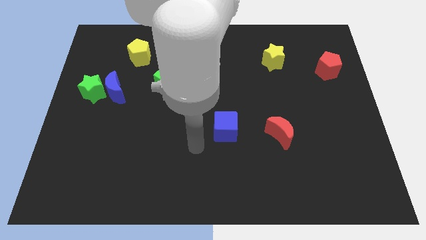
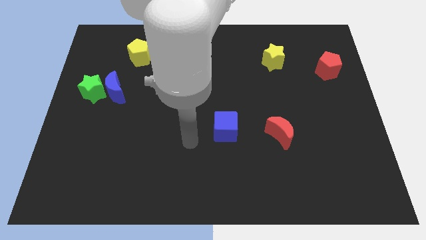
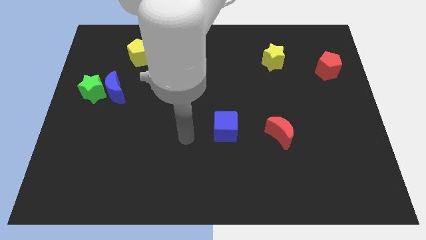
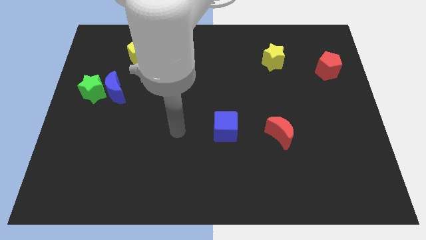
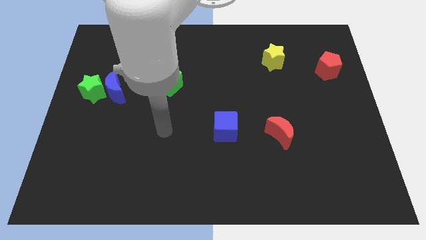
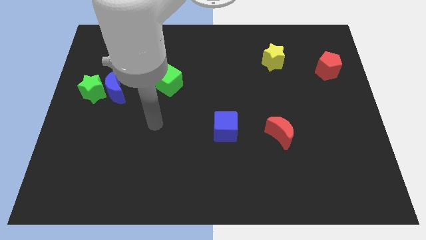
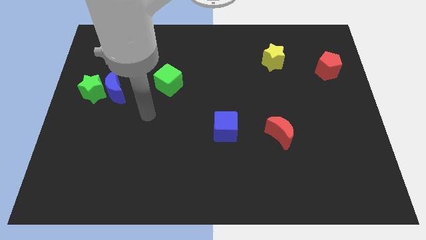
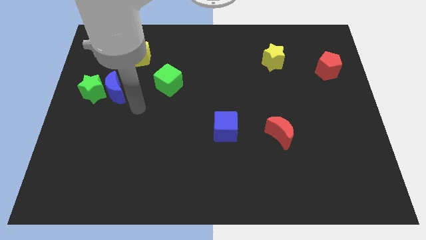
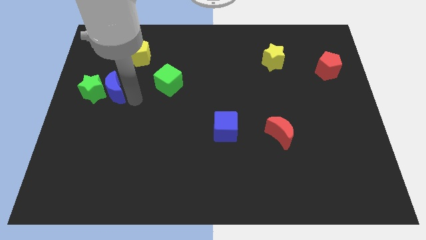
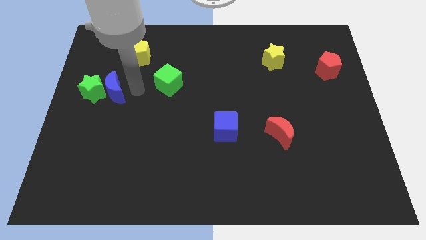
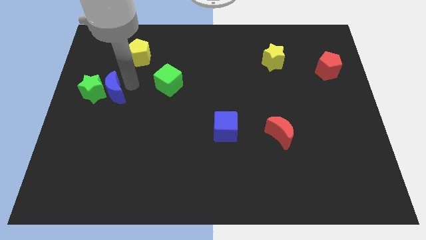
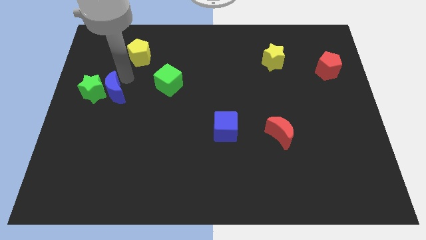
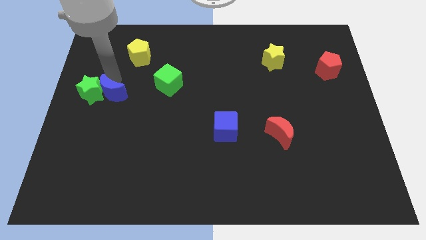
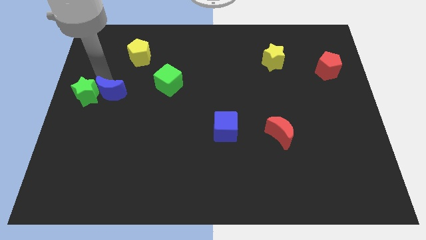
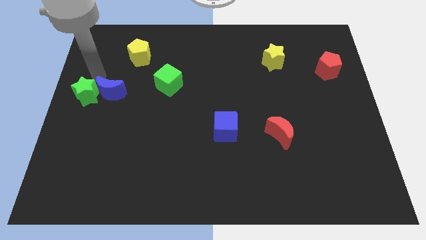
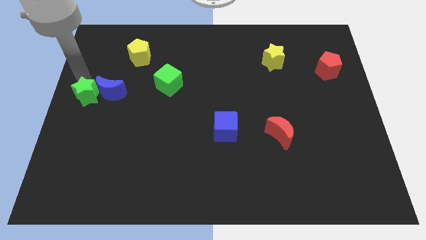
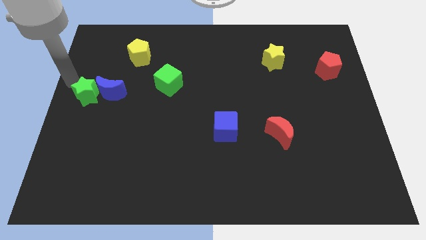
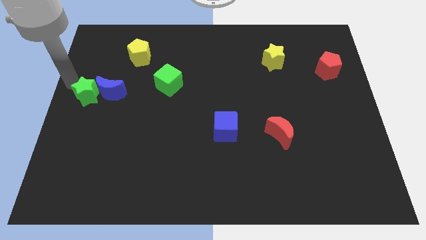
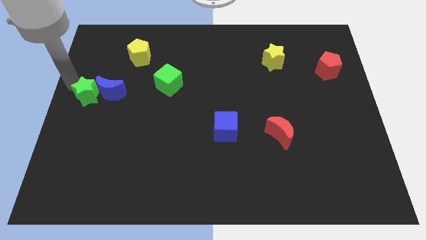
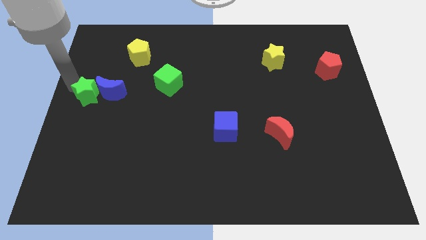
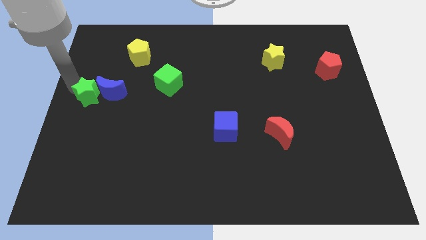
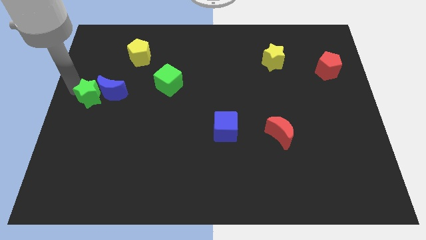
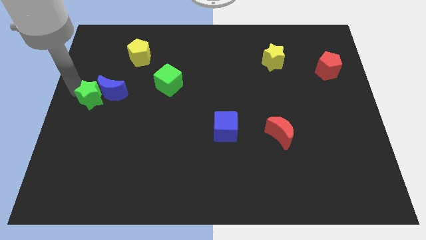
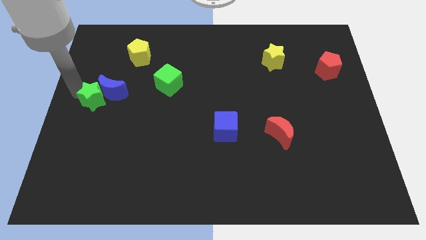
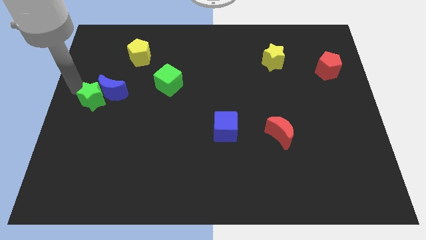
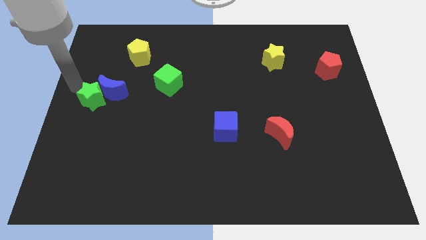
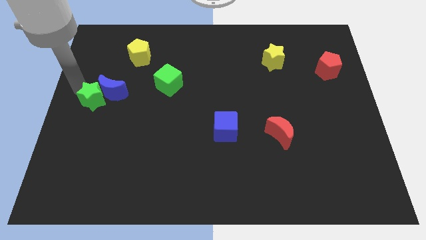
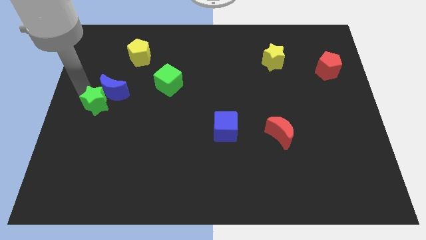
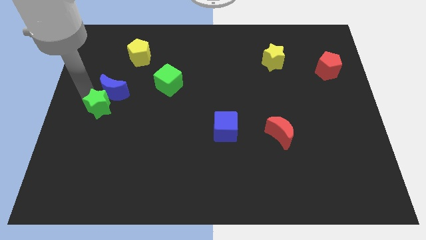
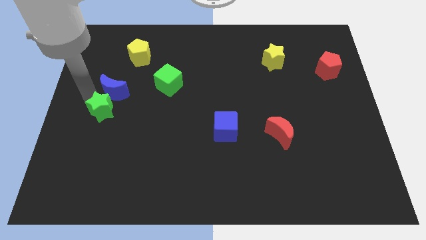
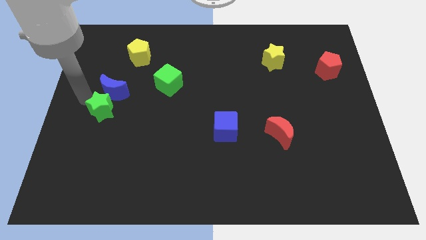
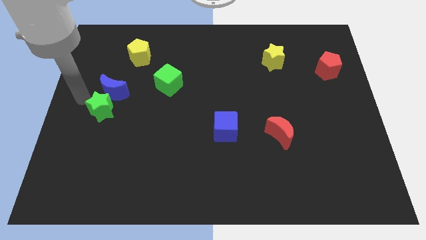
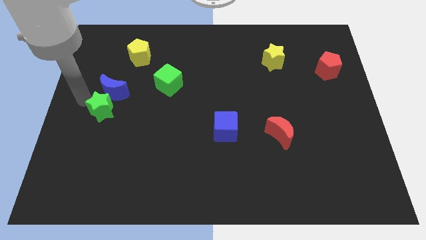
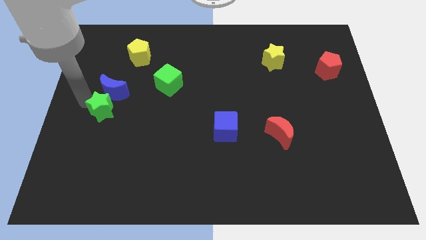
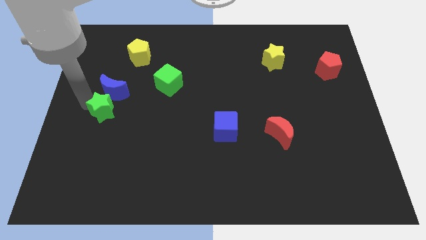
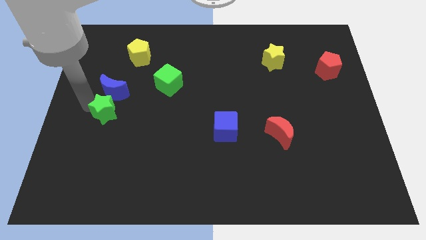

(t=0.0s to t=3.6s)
slide the green star down and to the right somewhat

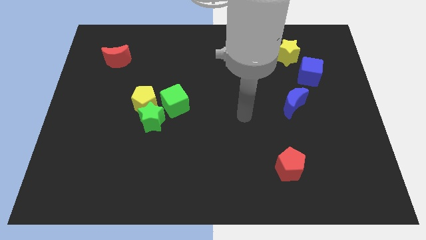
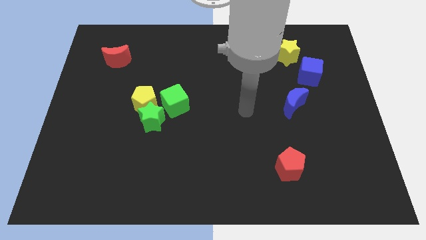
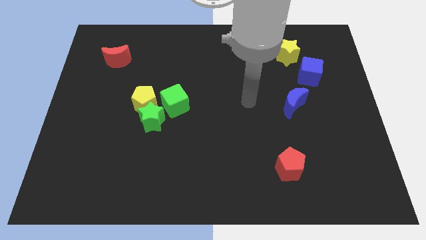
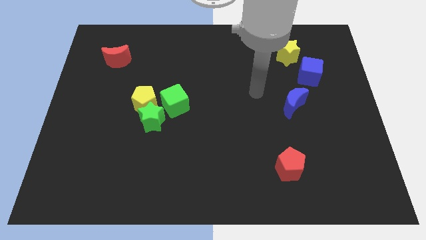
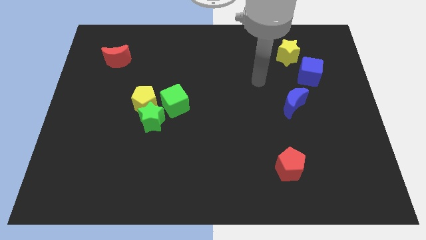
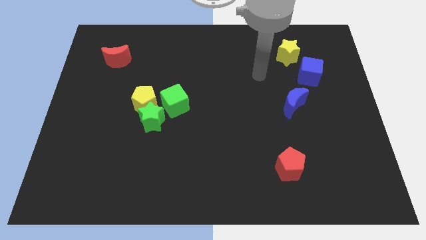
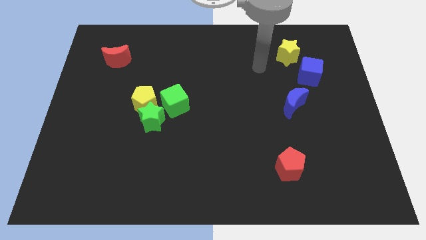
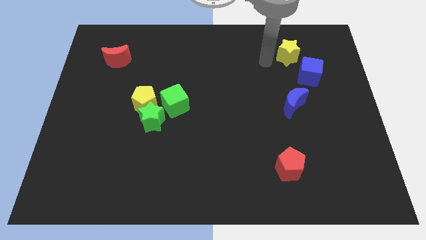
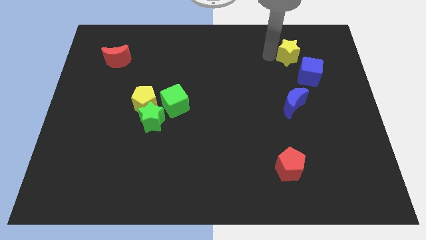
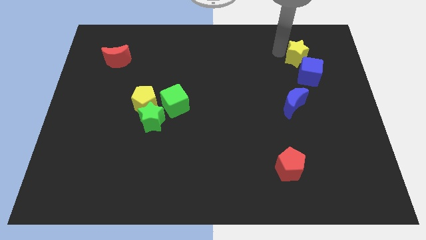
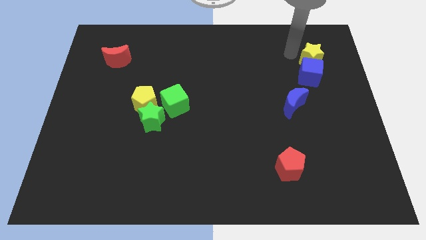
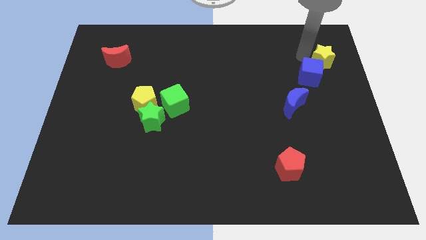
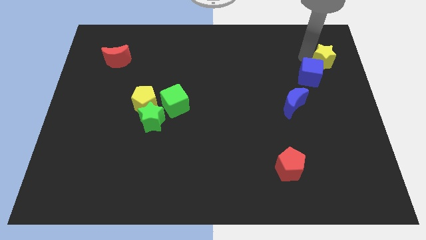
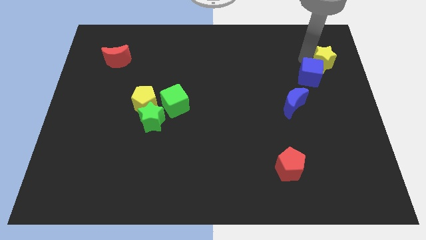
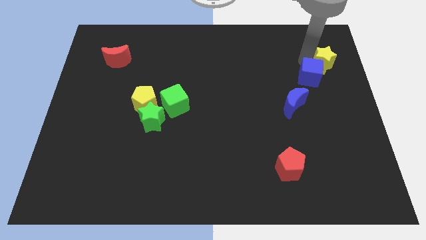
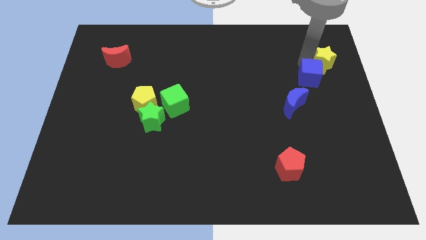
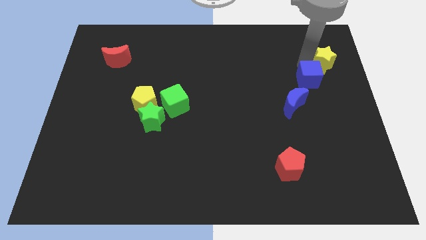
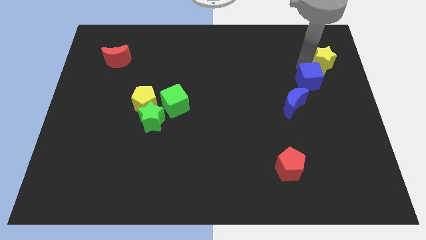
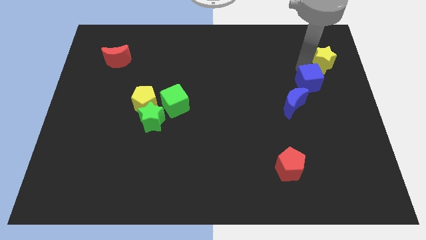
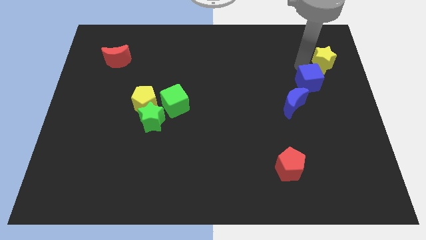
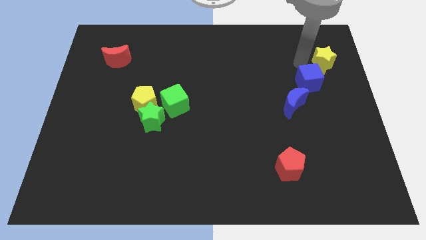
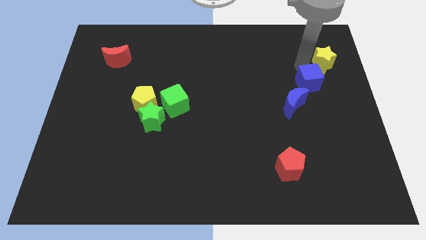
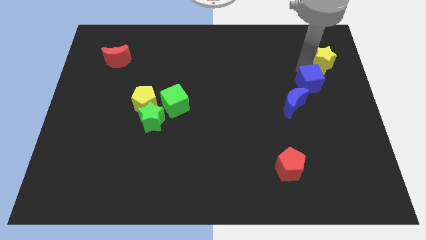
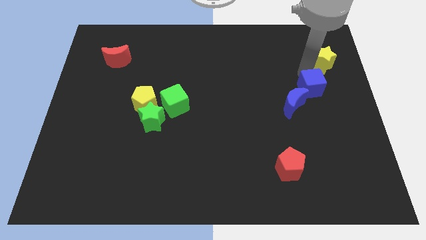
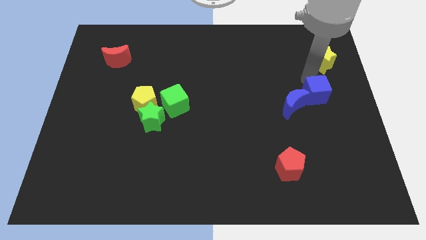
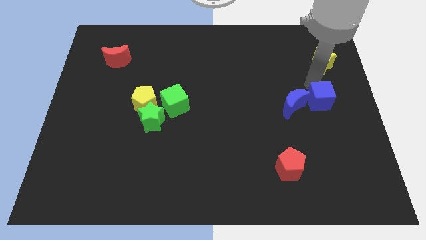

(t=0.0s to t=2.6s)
slightly move the blue cube downwards

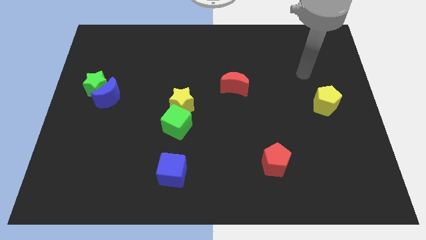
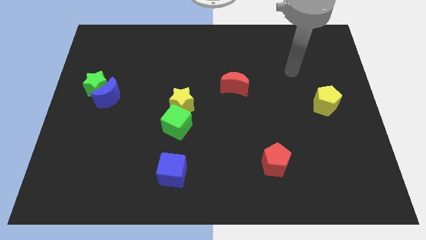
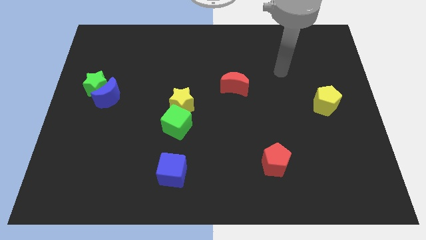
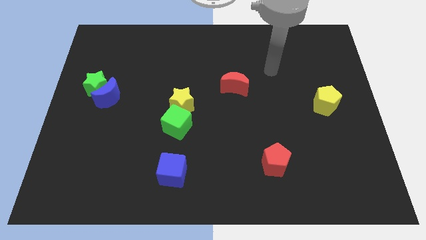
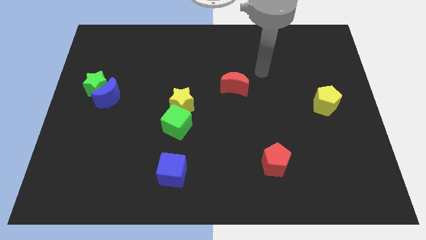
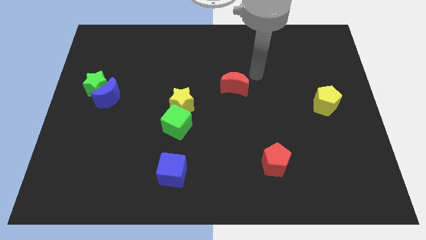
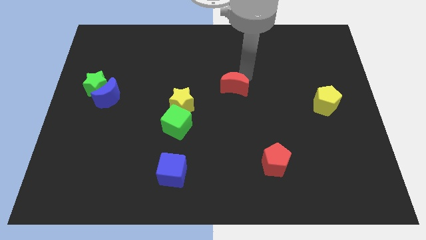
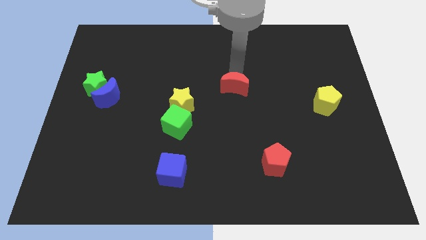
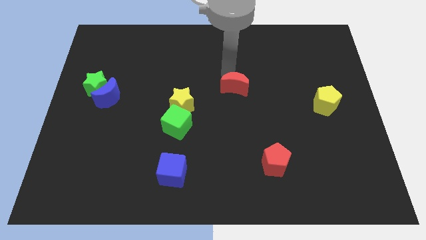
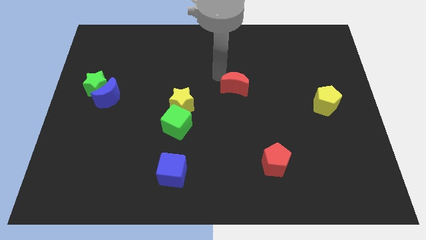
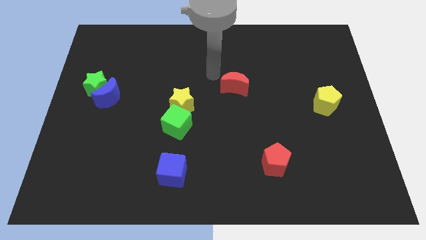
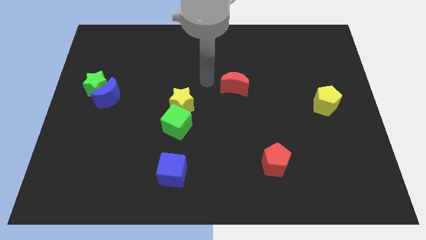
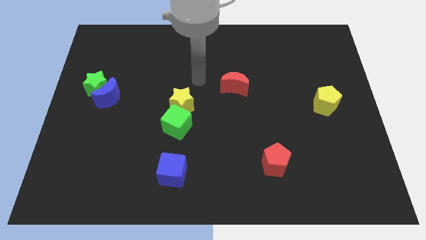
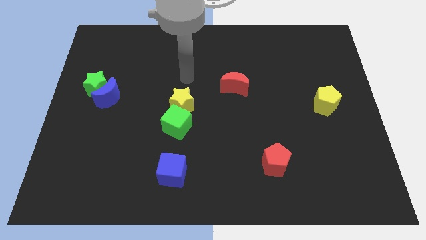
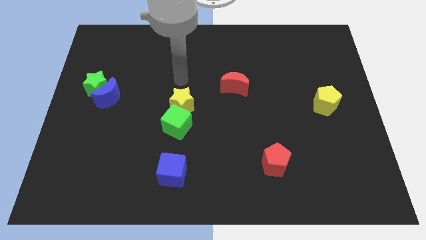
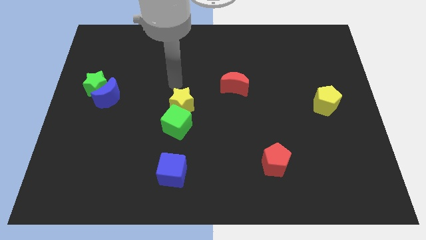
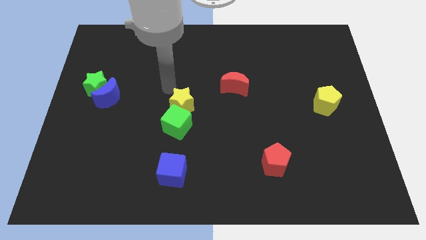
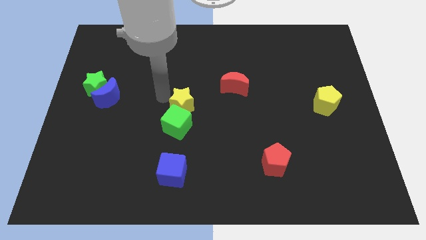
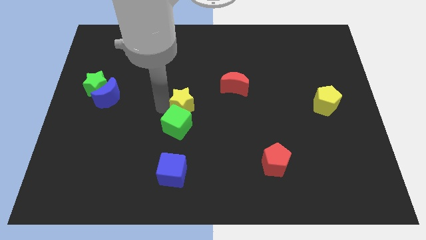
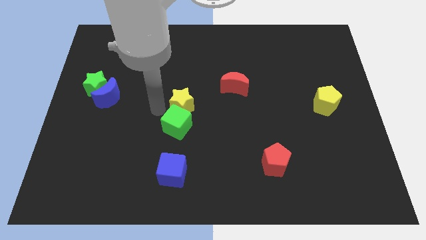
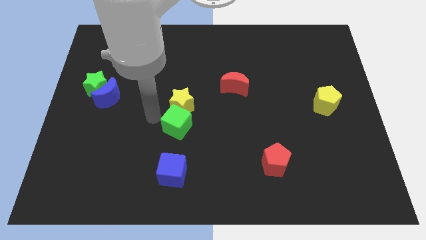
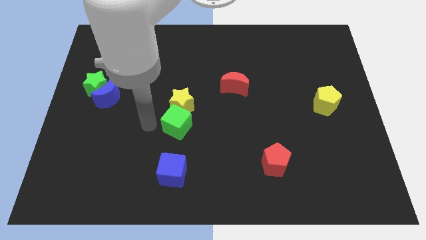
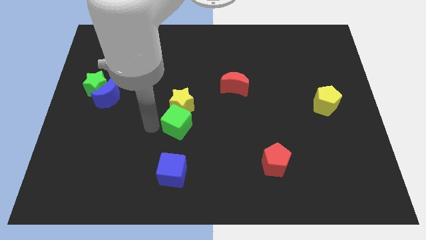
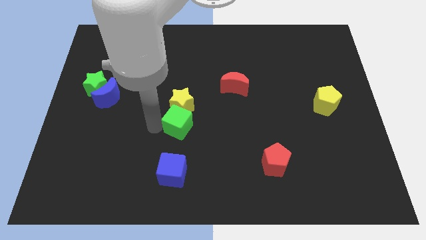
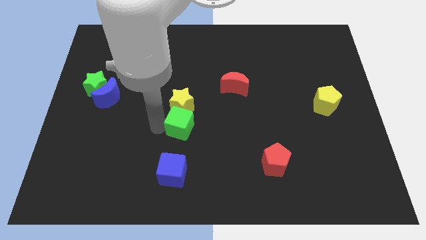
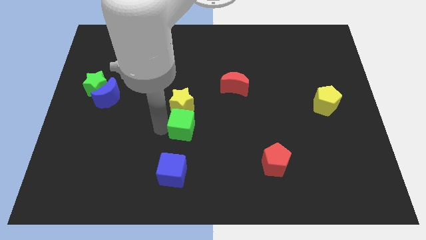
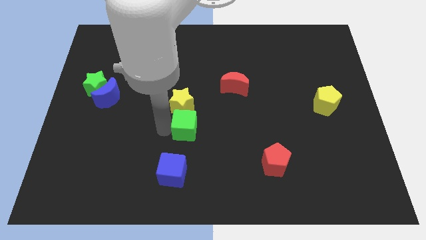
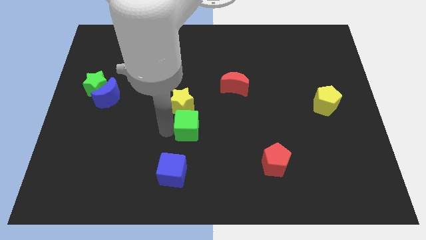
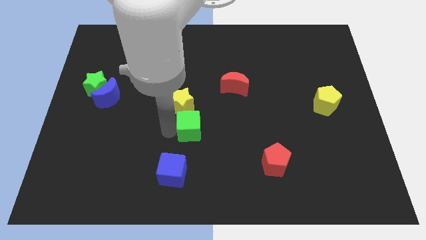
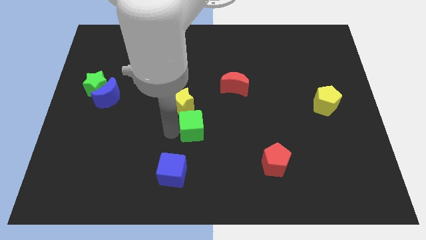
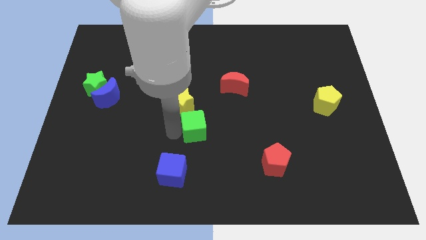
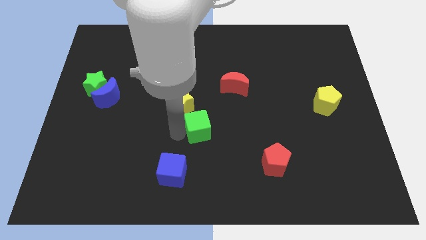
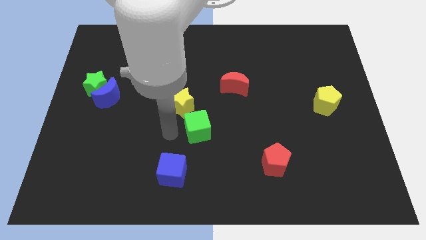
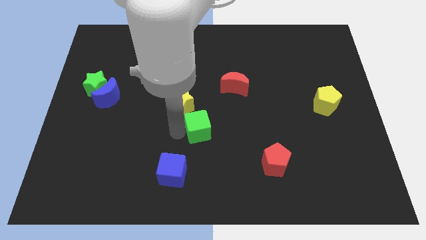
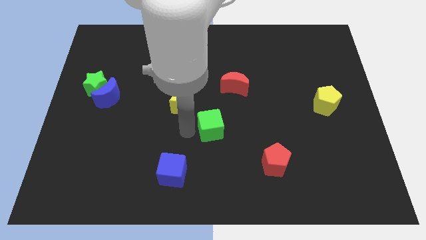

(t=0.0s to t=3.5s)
slightly push the green cube right
